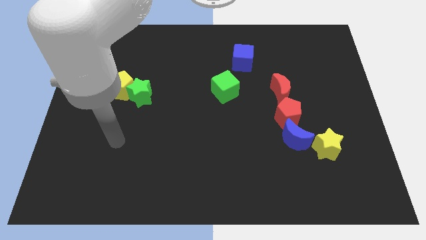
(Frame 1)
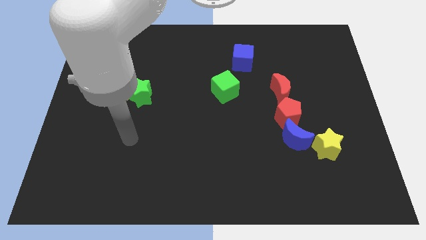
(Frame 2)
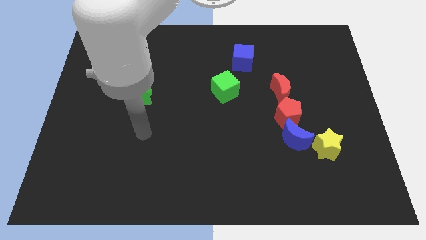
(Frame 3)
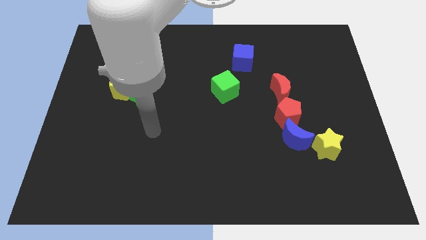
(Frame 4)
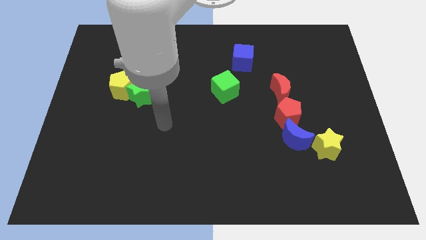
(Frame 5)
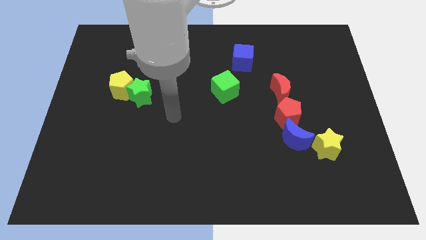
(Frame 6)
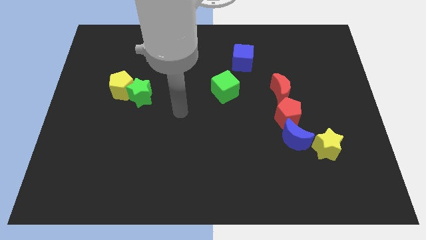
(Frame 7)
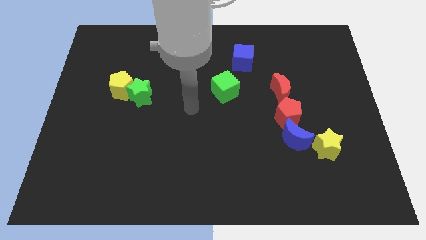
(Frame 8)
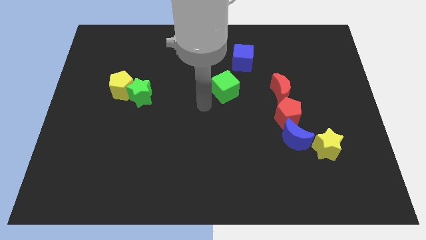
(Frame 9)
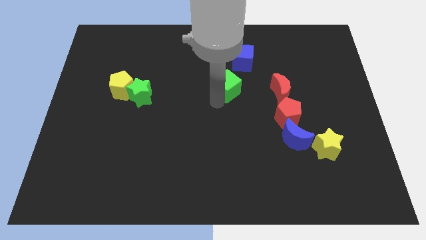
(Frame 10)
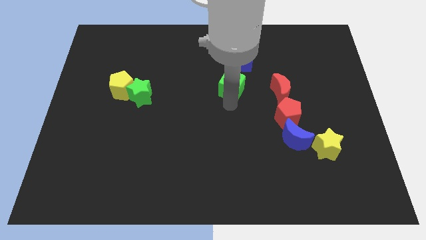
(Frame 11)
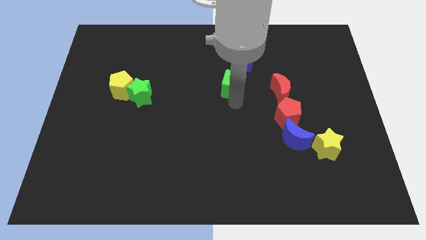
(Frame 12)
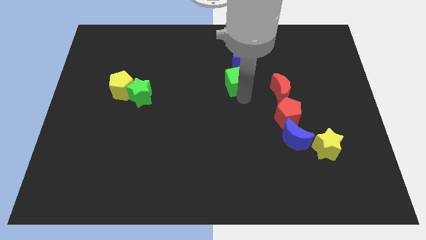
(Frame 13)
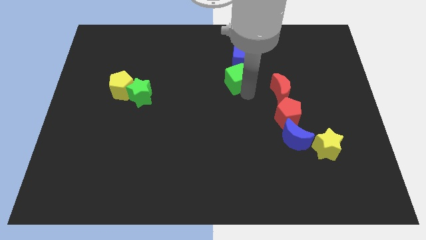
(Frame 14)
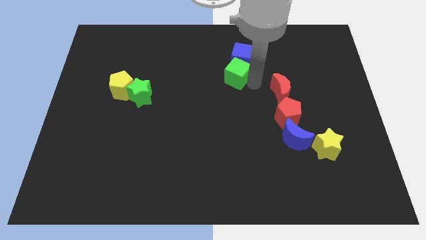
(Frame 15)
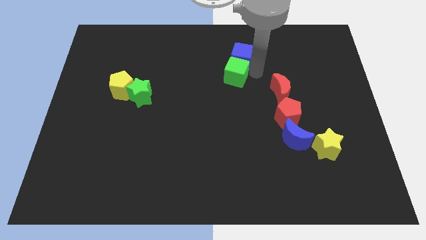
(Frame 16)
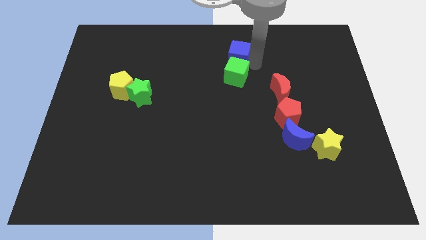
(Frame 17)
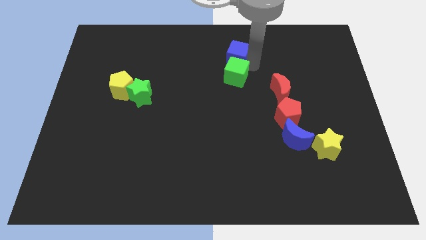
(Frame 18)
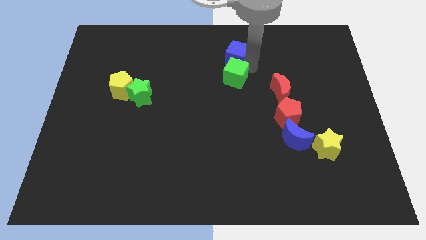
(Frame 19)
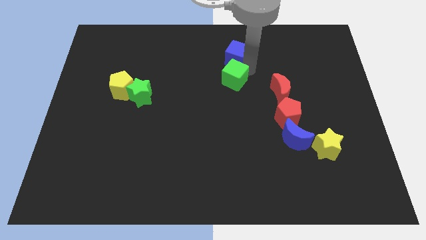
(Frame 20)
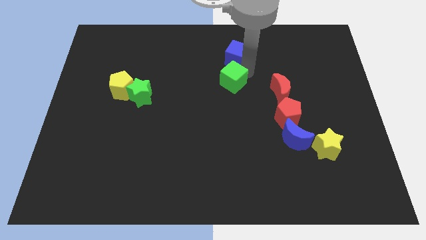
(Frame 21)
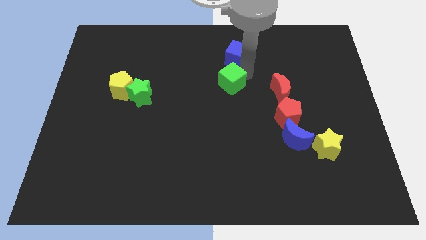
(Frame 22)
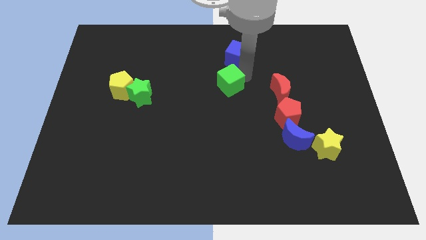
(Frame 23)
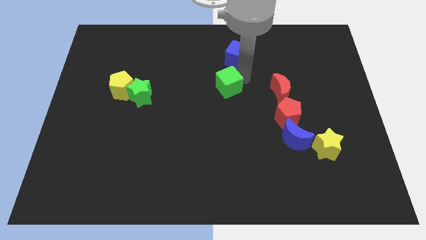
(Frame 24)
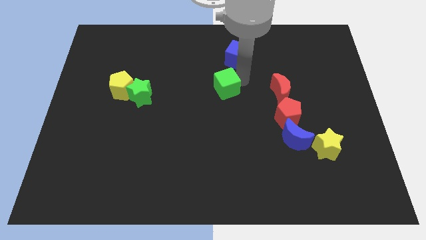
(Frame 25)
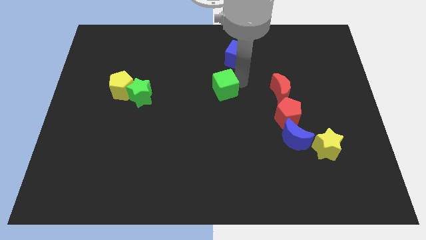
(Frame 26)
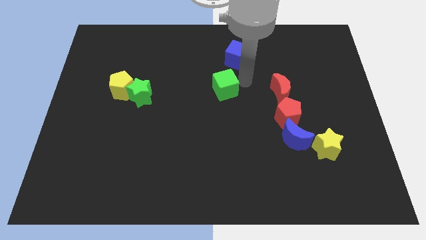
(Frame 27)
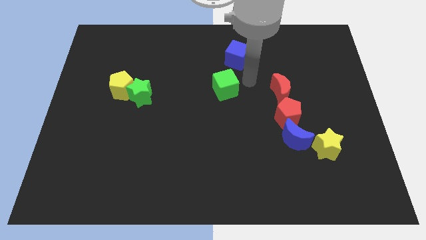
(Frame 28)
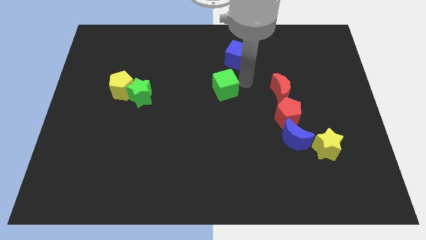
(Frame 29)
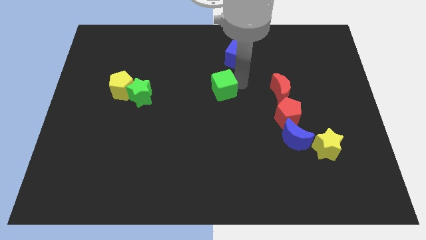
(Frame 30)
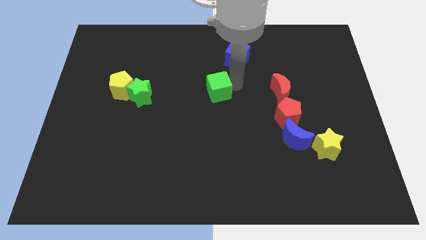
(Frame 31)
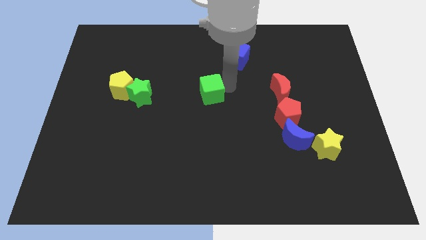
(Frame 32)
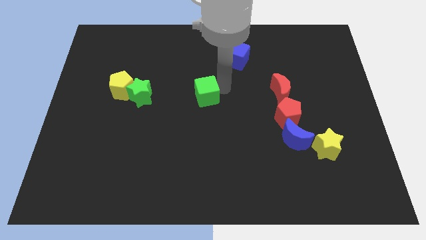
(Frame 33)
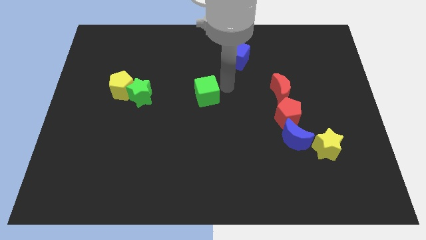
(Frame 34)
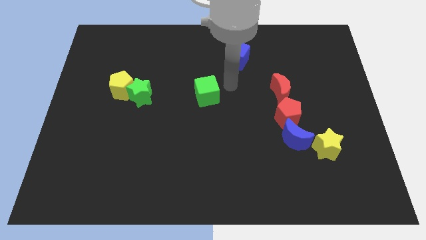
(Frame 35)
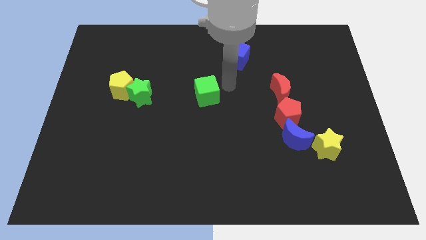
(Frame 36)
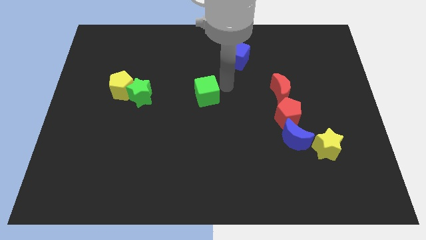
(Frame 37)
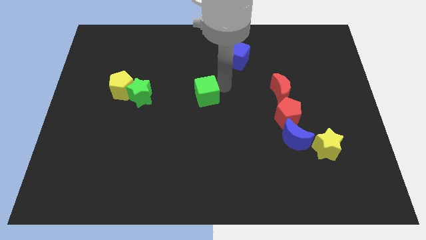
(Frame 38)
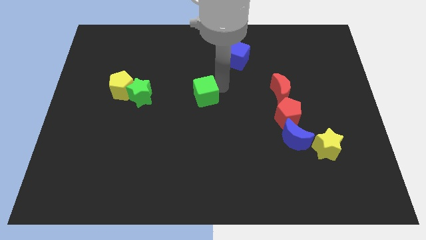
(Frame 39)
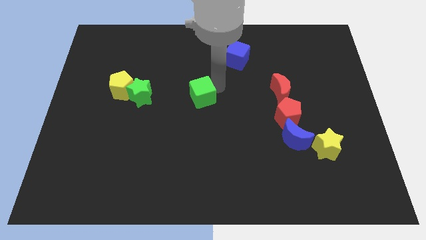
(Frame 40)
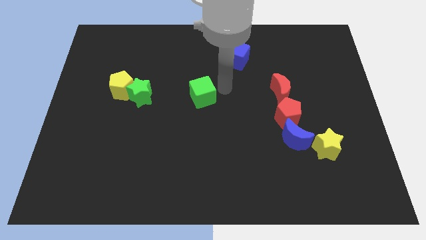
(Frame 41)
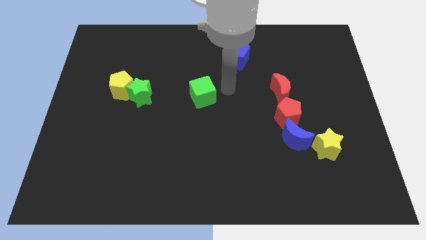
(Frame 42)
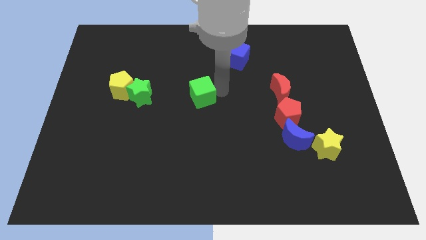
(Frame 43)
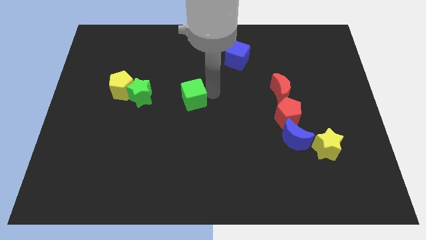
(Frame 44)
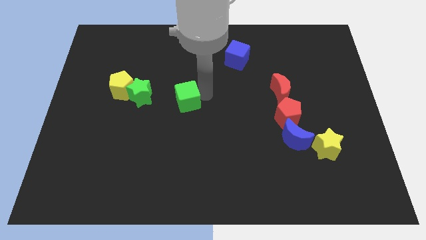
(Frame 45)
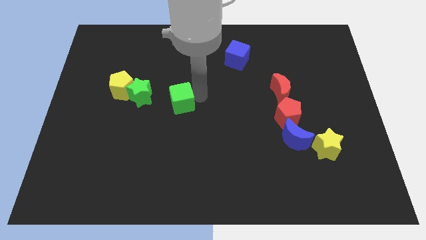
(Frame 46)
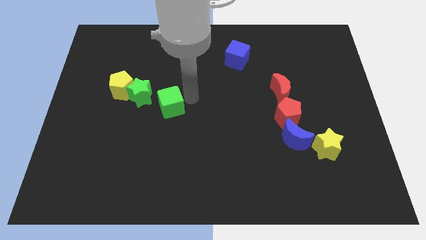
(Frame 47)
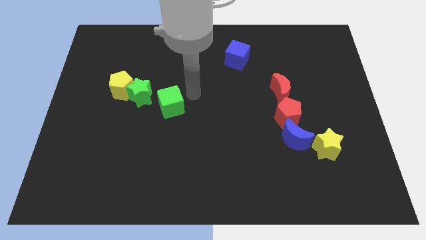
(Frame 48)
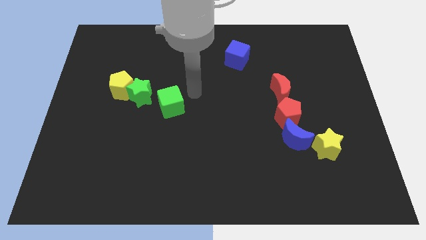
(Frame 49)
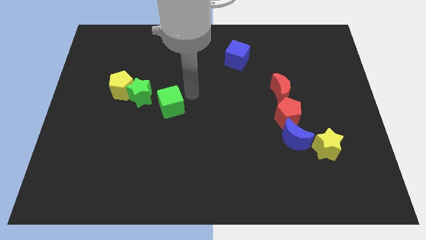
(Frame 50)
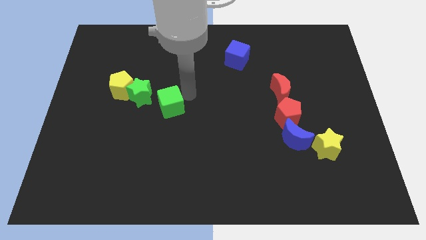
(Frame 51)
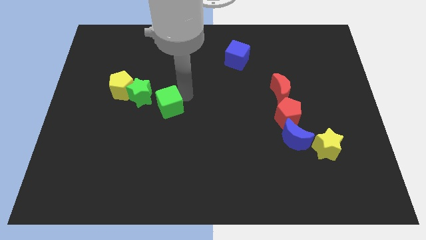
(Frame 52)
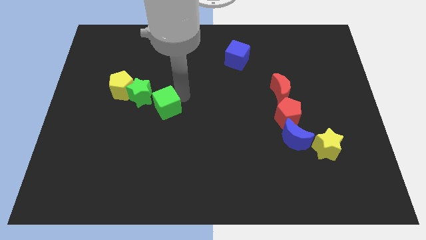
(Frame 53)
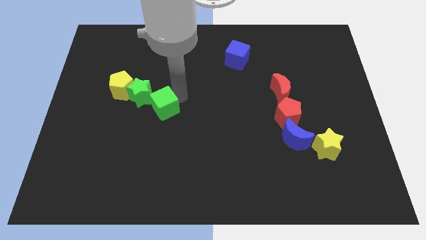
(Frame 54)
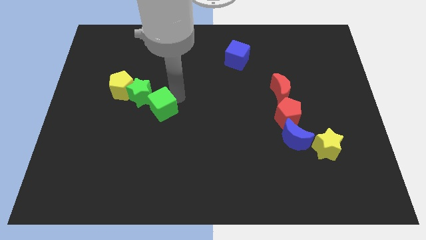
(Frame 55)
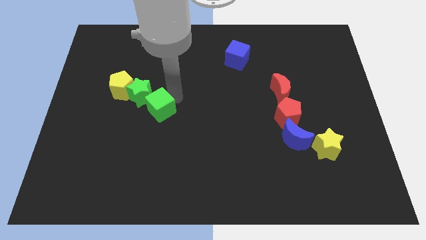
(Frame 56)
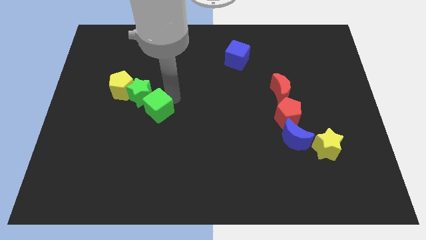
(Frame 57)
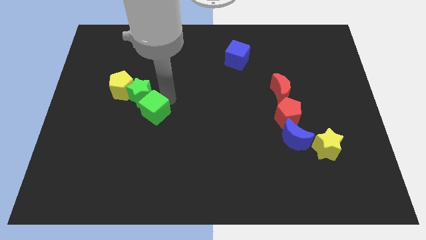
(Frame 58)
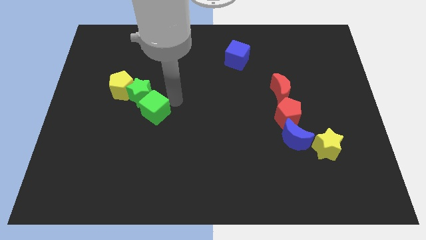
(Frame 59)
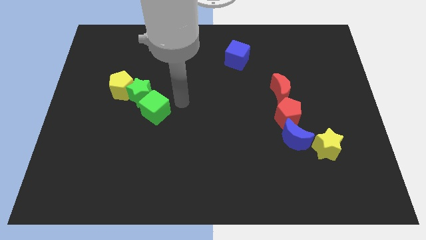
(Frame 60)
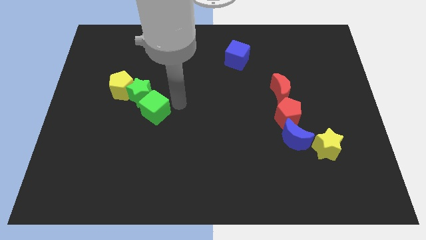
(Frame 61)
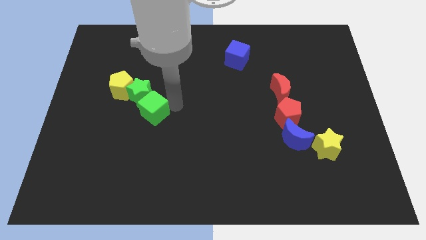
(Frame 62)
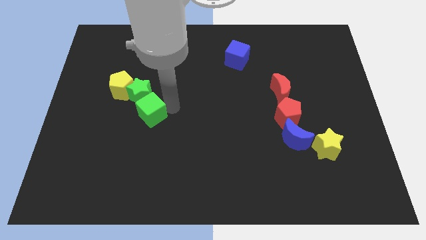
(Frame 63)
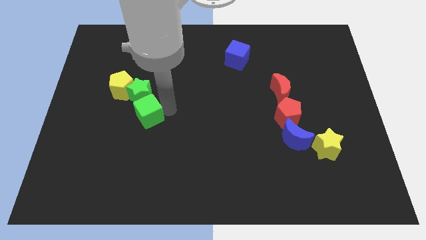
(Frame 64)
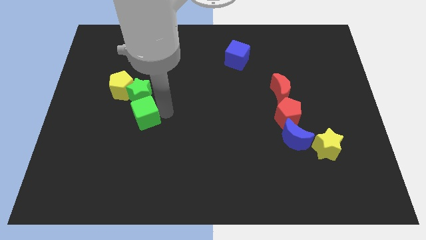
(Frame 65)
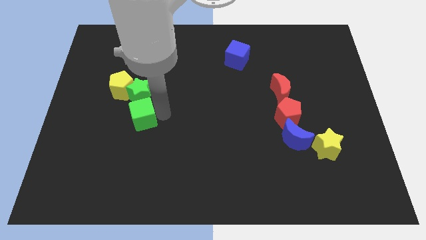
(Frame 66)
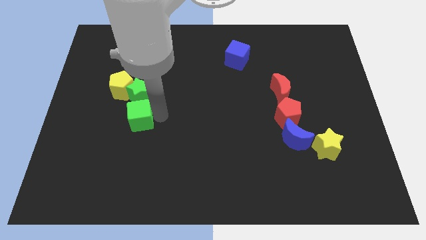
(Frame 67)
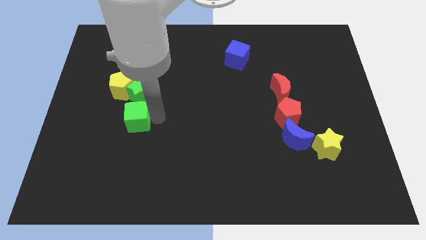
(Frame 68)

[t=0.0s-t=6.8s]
push the green cube to the bottom side of the yellow pentagon

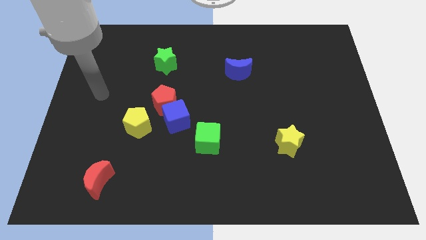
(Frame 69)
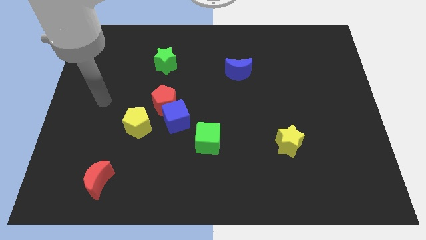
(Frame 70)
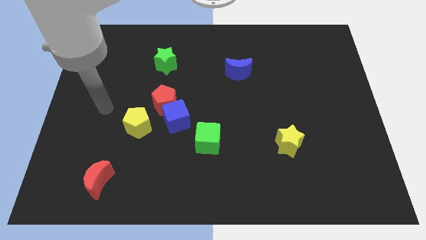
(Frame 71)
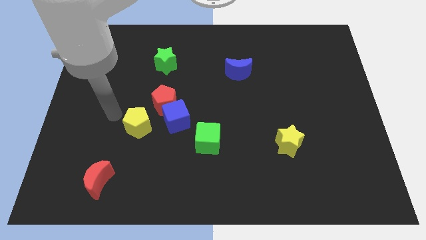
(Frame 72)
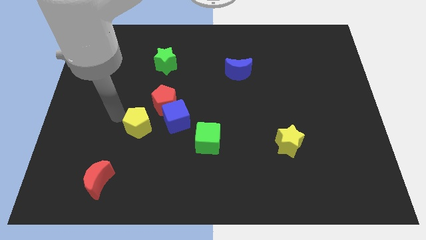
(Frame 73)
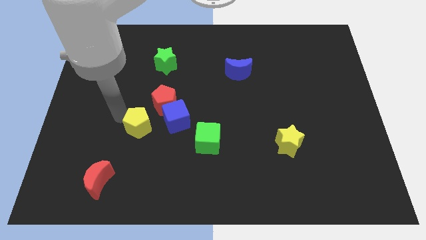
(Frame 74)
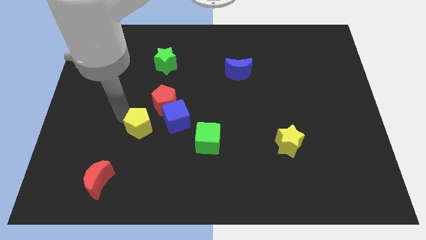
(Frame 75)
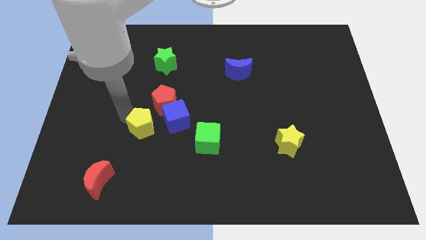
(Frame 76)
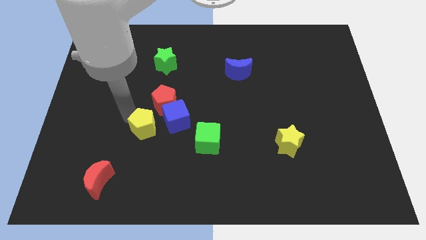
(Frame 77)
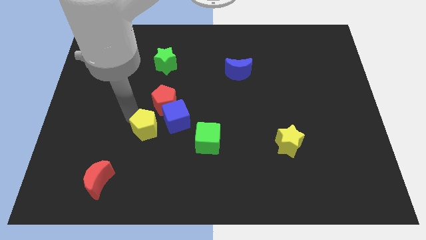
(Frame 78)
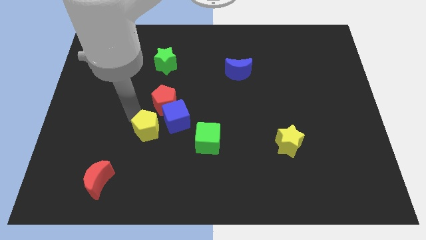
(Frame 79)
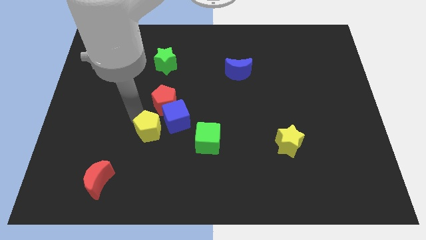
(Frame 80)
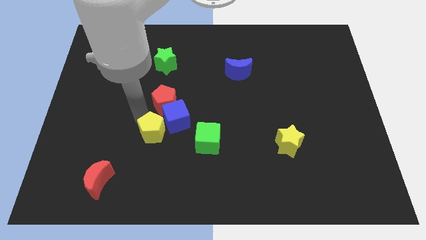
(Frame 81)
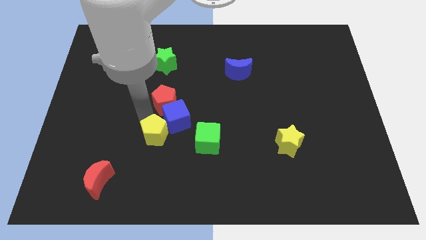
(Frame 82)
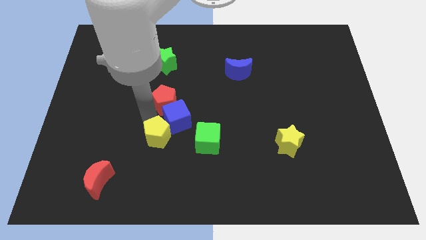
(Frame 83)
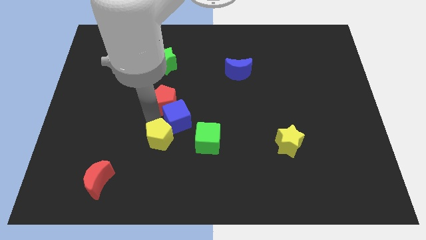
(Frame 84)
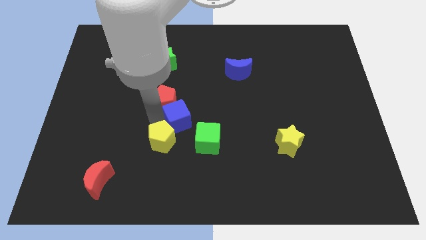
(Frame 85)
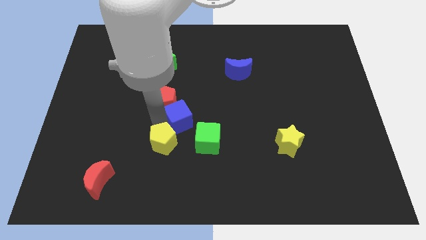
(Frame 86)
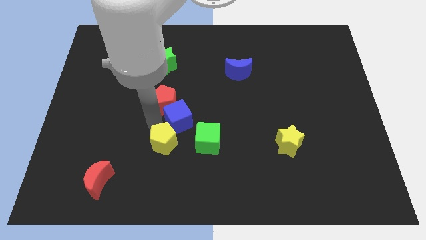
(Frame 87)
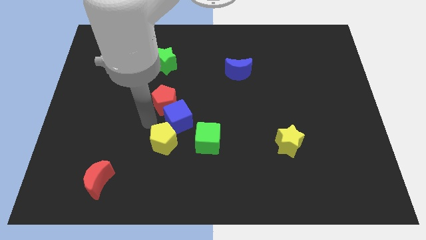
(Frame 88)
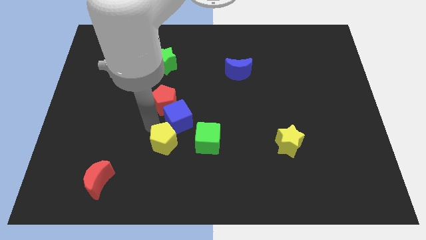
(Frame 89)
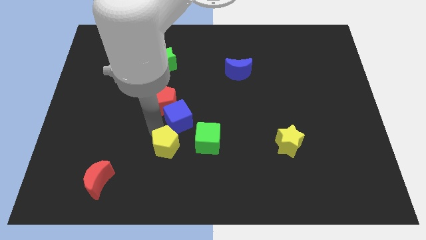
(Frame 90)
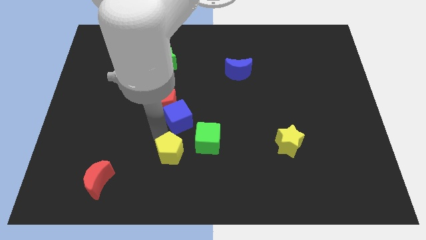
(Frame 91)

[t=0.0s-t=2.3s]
slide the yellow pentagon diagonally down and to the left of the green cube
